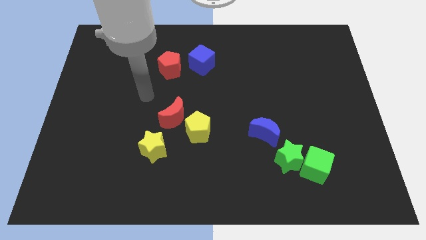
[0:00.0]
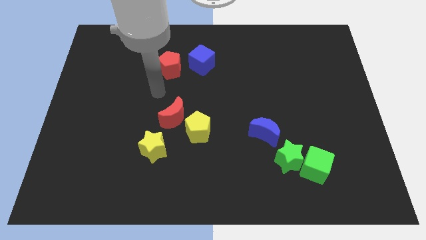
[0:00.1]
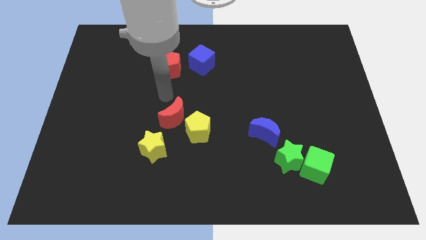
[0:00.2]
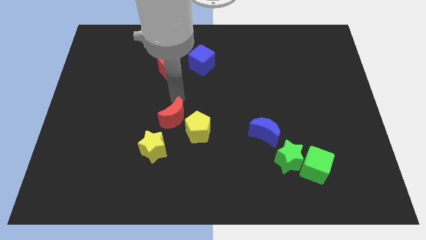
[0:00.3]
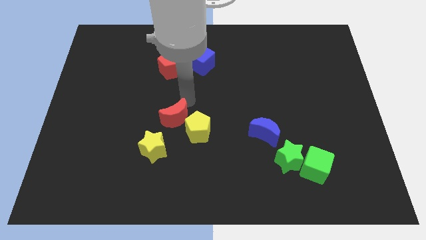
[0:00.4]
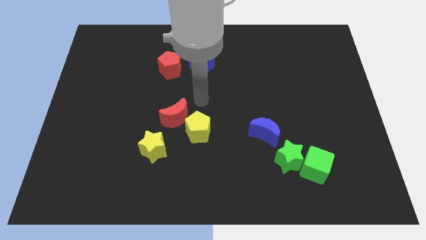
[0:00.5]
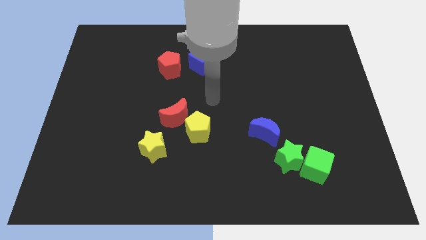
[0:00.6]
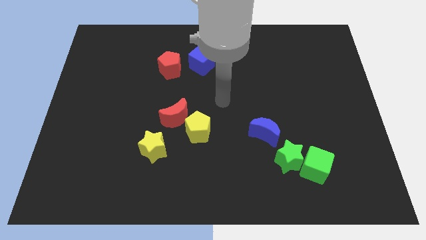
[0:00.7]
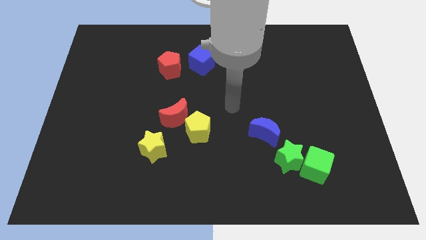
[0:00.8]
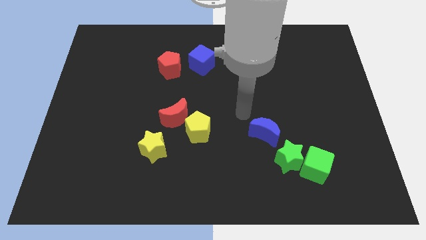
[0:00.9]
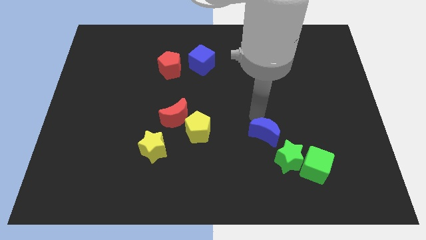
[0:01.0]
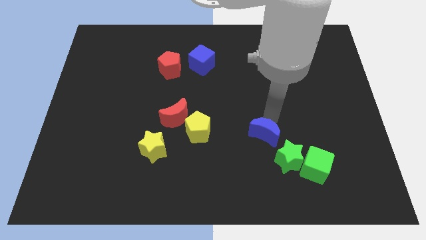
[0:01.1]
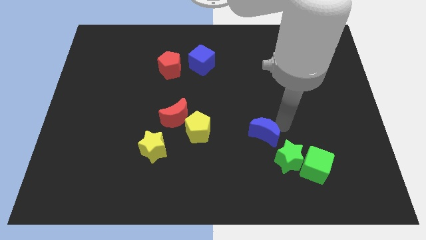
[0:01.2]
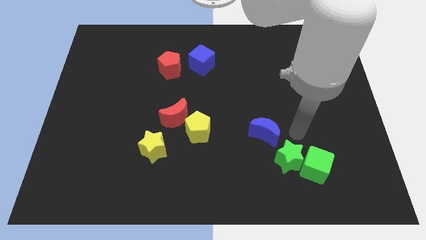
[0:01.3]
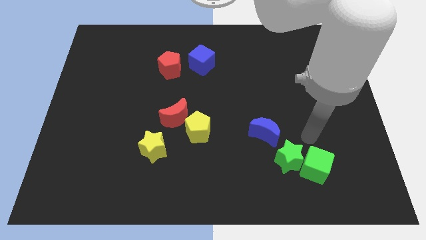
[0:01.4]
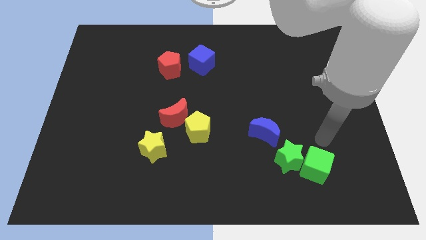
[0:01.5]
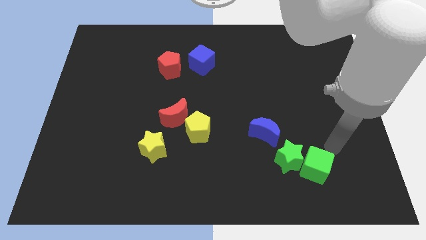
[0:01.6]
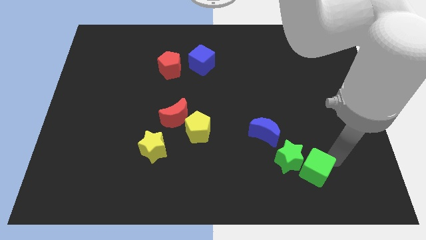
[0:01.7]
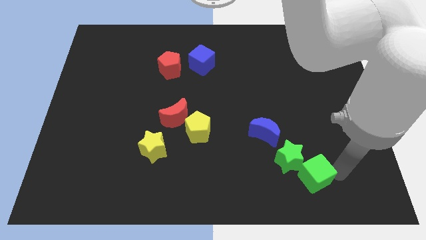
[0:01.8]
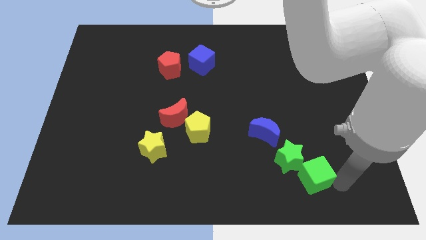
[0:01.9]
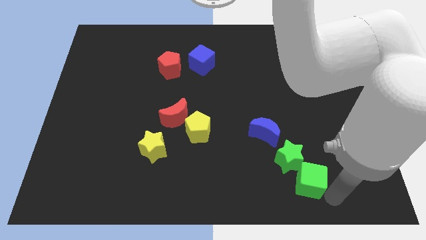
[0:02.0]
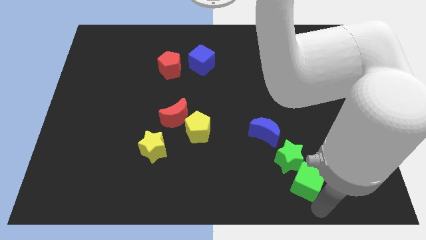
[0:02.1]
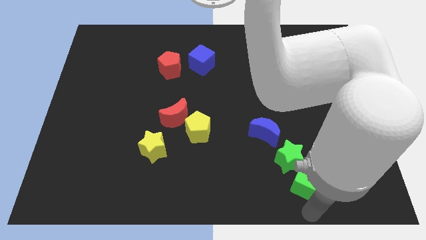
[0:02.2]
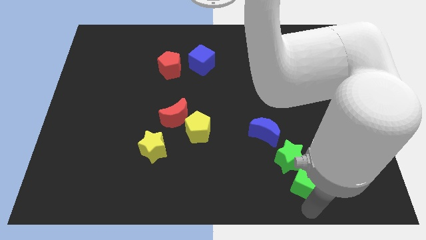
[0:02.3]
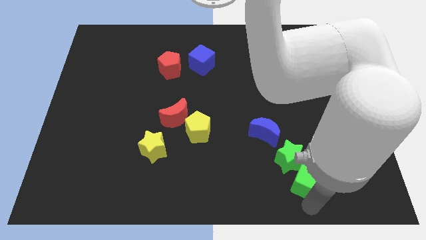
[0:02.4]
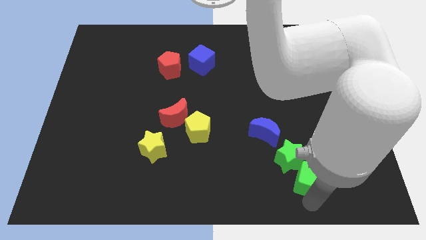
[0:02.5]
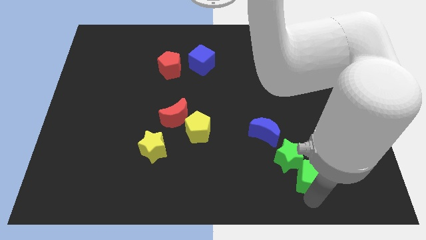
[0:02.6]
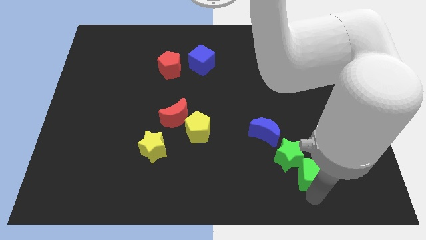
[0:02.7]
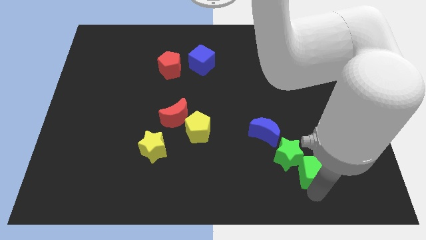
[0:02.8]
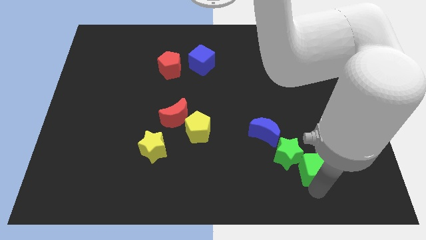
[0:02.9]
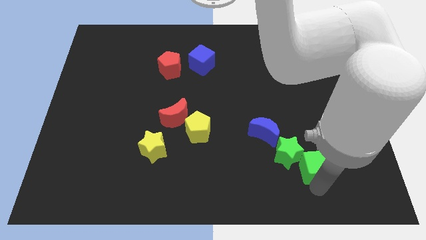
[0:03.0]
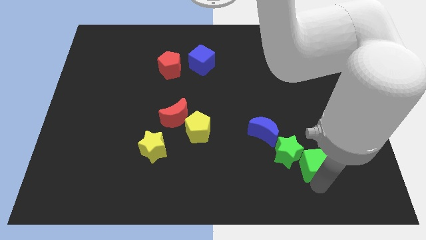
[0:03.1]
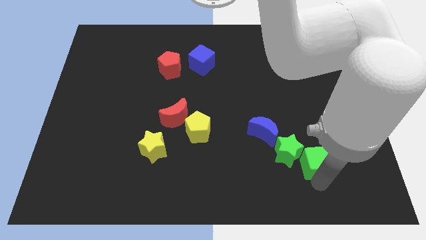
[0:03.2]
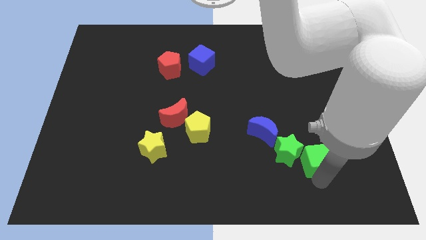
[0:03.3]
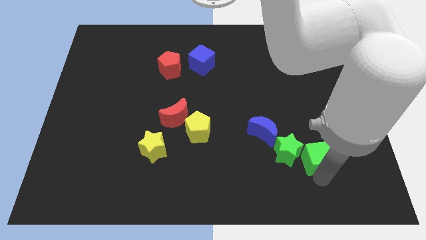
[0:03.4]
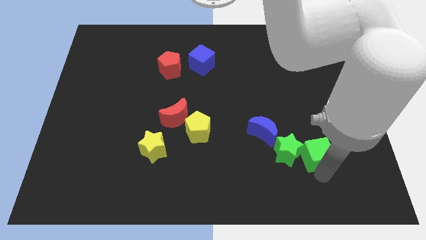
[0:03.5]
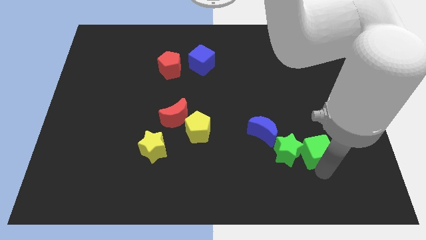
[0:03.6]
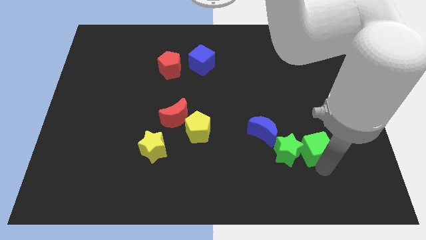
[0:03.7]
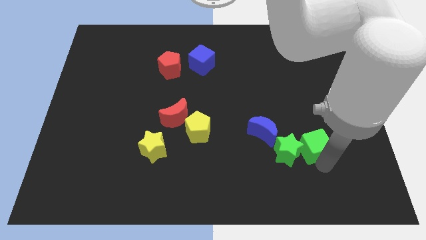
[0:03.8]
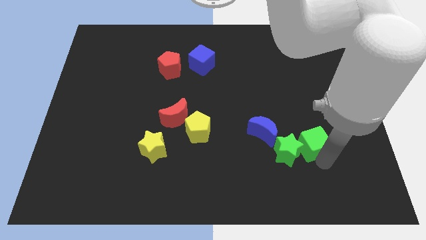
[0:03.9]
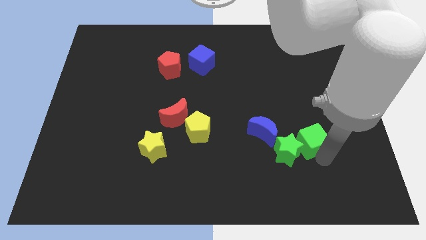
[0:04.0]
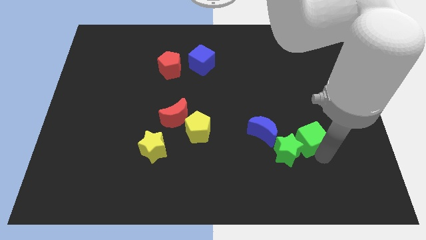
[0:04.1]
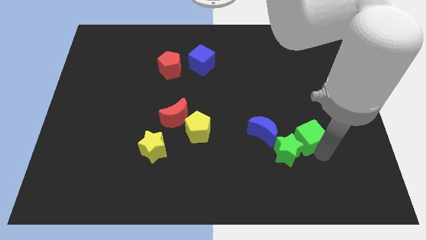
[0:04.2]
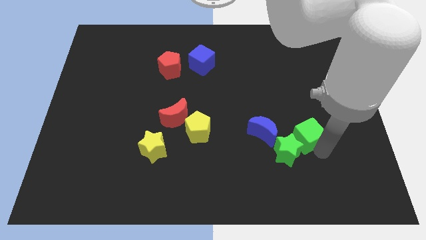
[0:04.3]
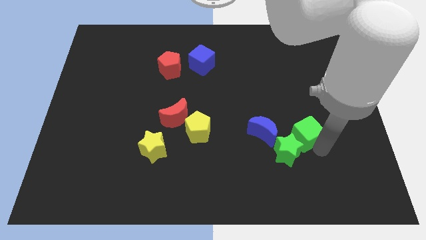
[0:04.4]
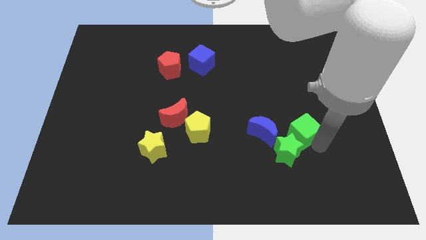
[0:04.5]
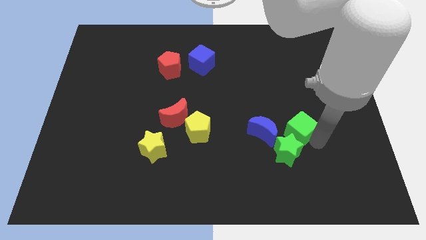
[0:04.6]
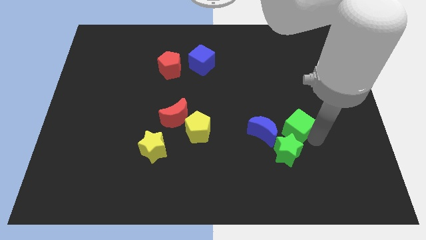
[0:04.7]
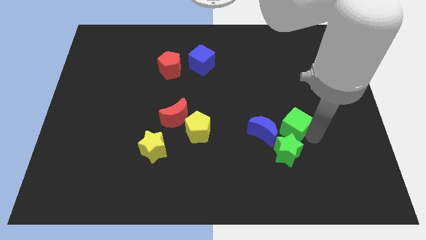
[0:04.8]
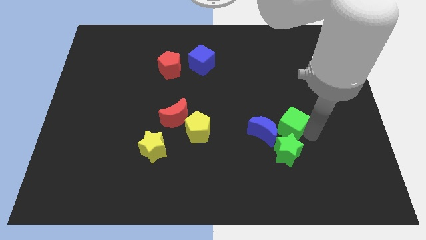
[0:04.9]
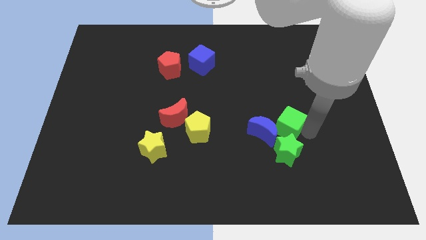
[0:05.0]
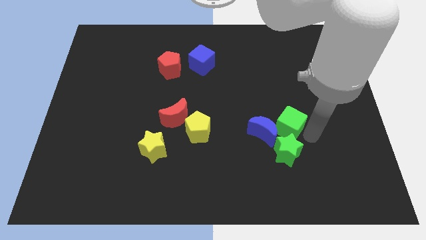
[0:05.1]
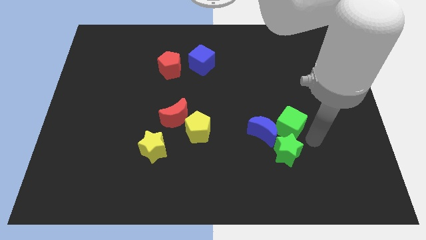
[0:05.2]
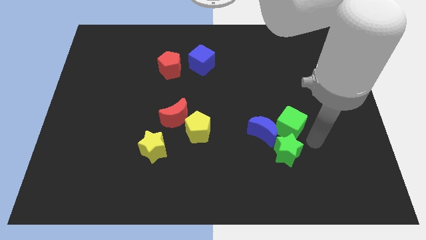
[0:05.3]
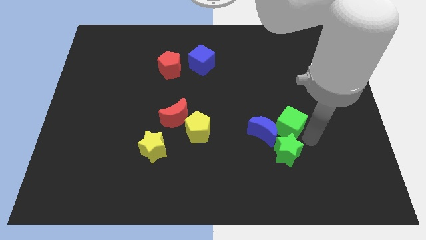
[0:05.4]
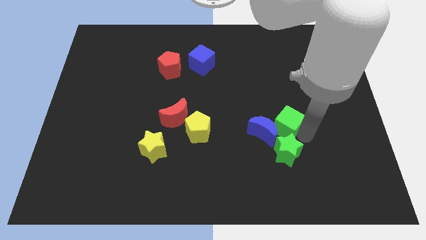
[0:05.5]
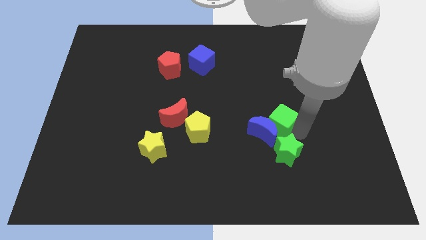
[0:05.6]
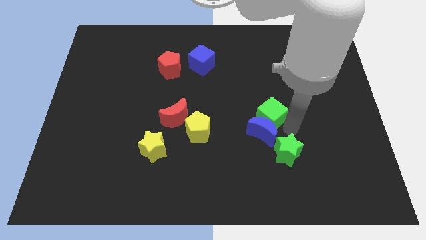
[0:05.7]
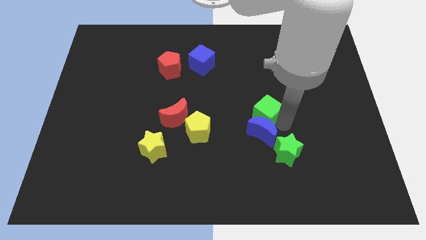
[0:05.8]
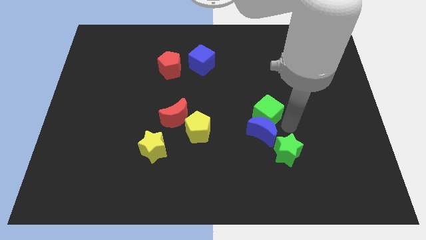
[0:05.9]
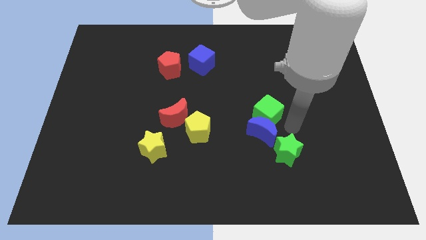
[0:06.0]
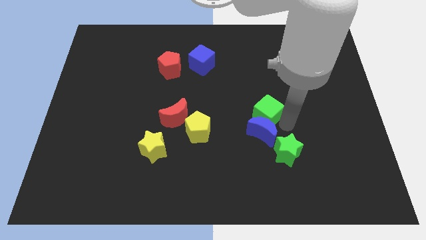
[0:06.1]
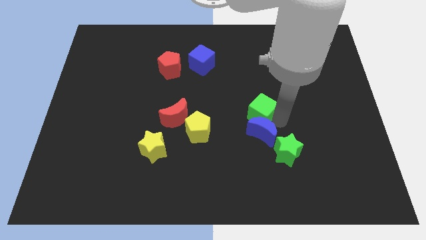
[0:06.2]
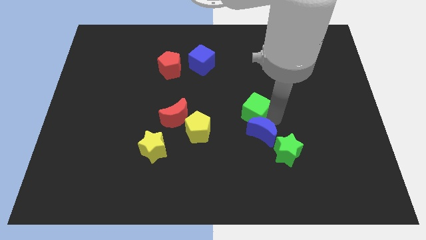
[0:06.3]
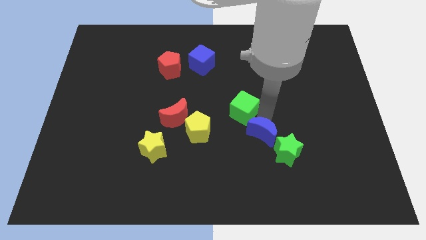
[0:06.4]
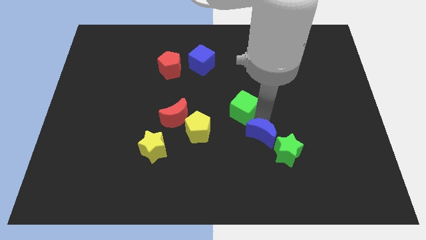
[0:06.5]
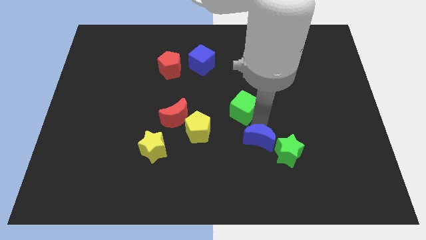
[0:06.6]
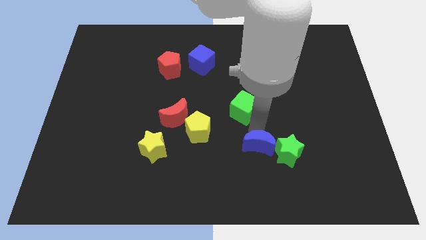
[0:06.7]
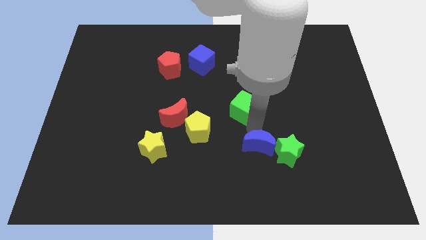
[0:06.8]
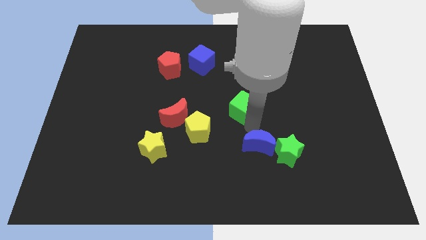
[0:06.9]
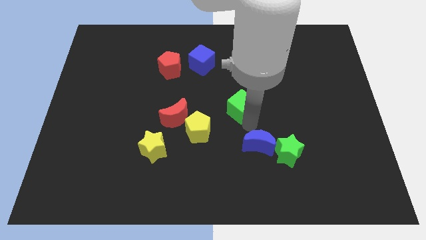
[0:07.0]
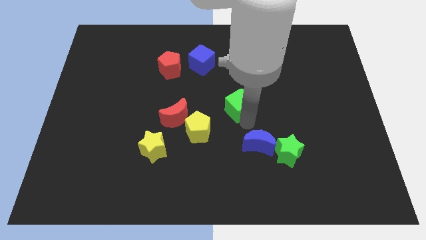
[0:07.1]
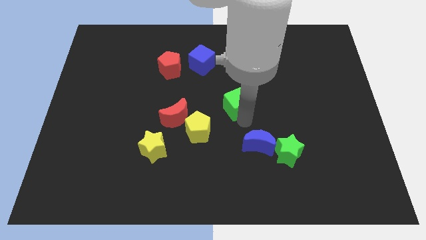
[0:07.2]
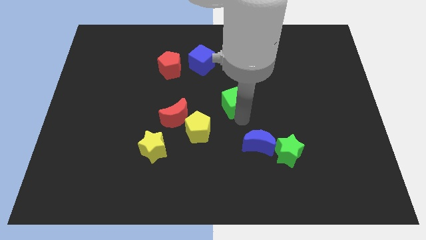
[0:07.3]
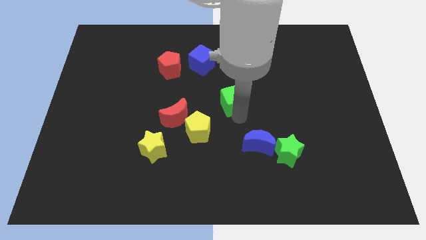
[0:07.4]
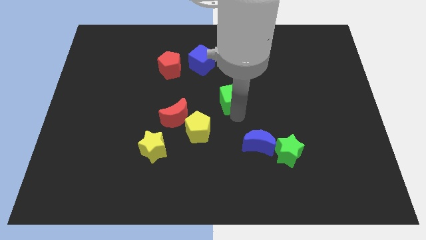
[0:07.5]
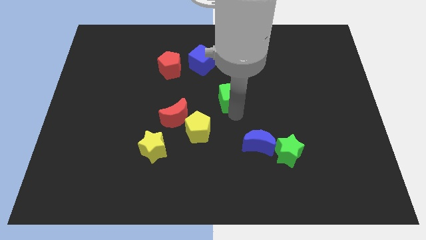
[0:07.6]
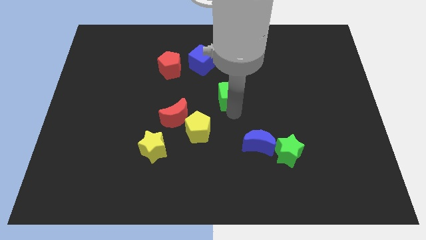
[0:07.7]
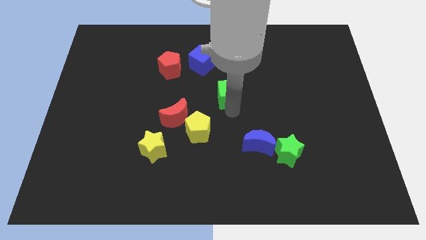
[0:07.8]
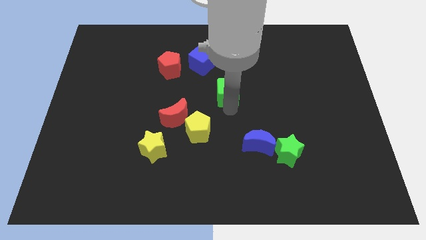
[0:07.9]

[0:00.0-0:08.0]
put the green cube to the bottom right side of the blue cube
